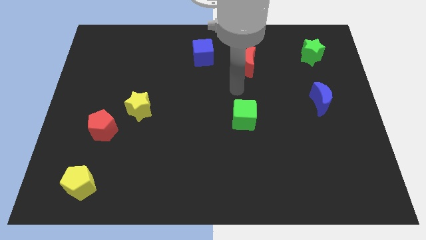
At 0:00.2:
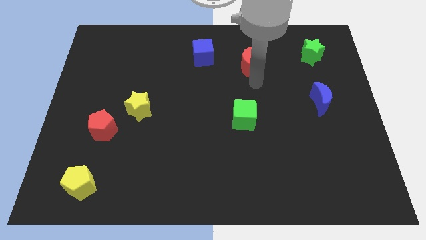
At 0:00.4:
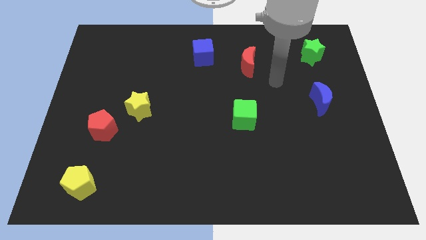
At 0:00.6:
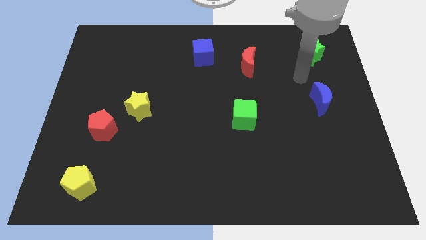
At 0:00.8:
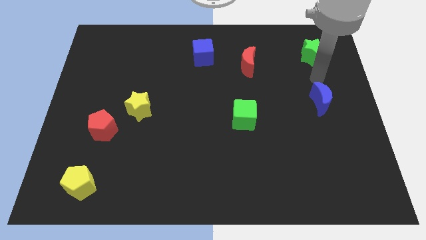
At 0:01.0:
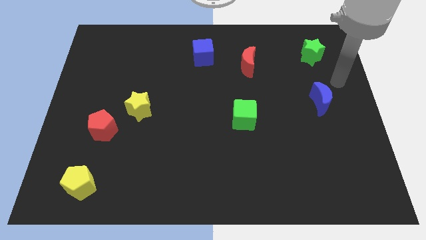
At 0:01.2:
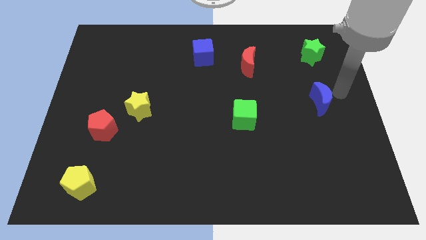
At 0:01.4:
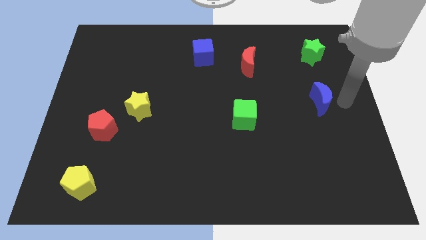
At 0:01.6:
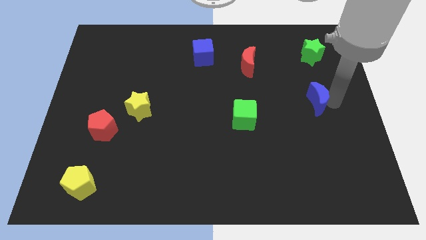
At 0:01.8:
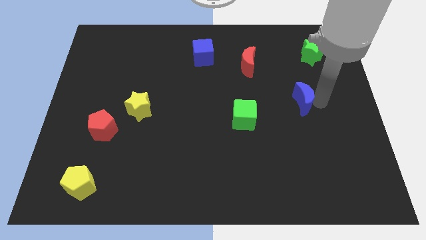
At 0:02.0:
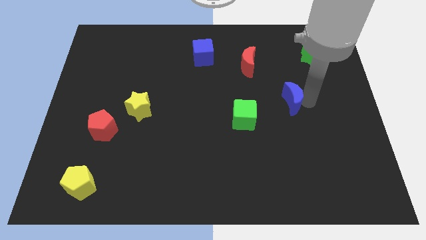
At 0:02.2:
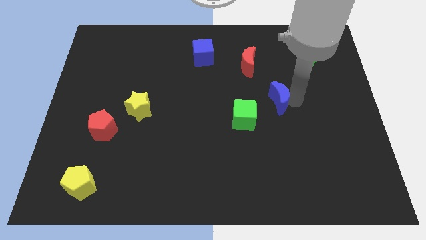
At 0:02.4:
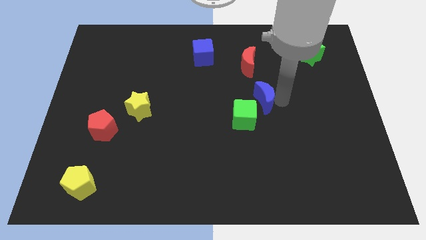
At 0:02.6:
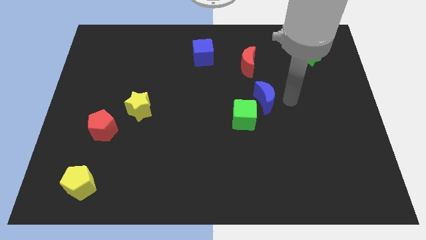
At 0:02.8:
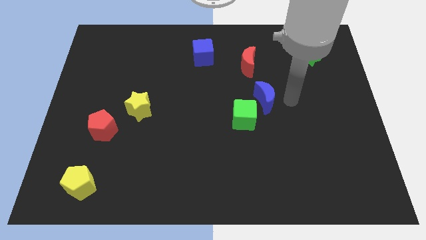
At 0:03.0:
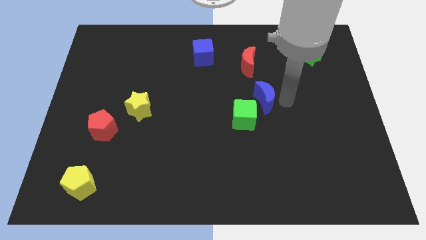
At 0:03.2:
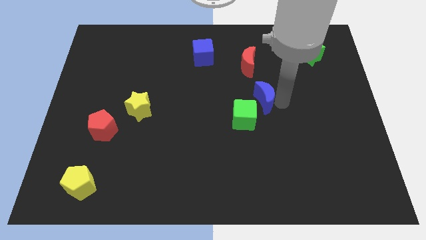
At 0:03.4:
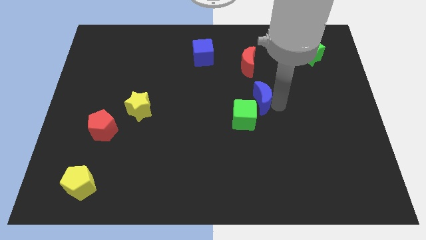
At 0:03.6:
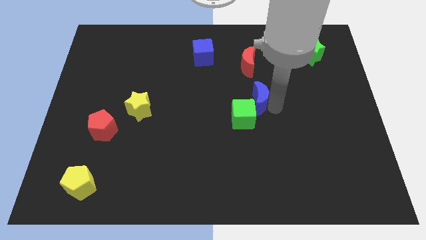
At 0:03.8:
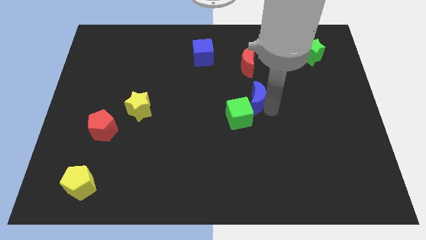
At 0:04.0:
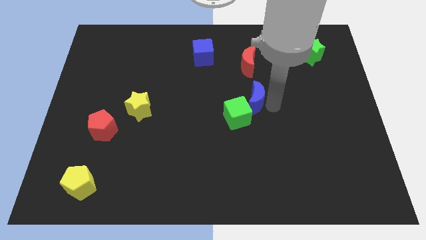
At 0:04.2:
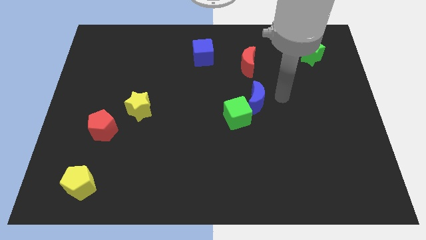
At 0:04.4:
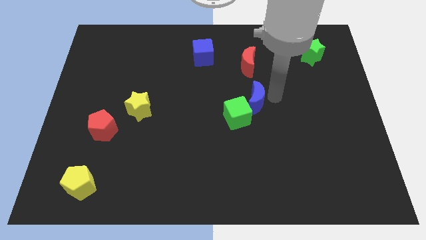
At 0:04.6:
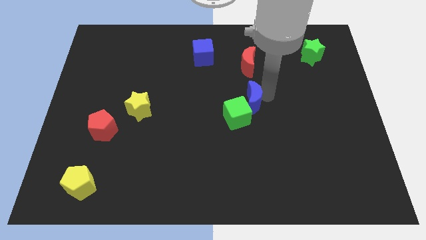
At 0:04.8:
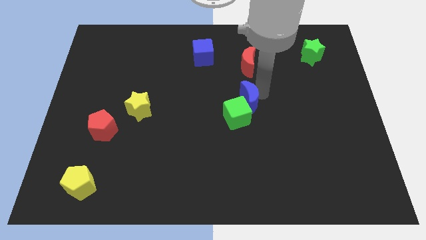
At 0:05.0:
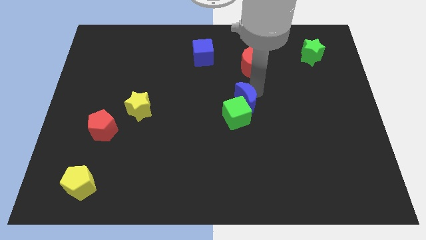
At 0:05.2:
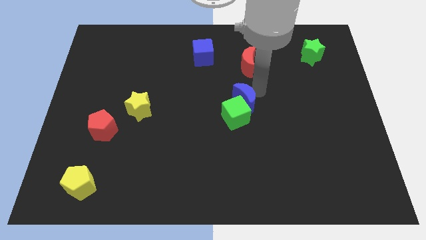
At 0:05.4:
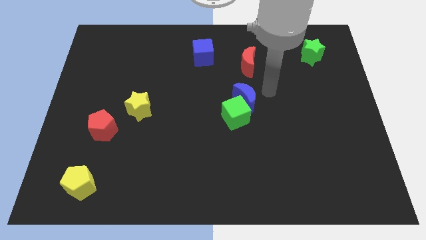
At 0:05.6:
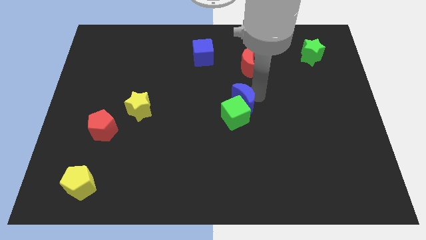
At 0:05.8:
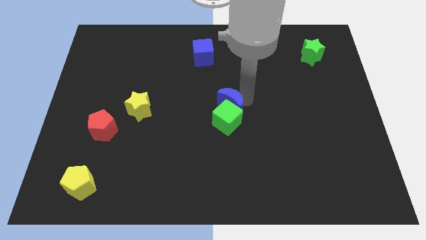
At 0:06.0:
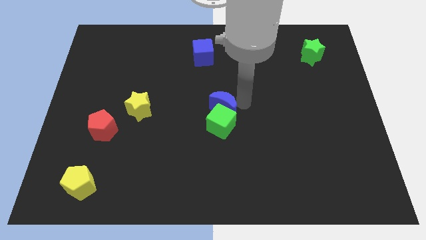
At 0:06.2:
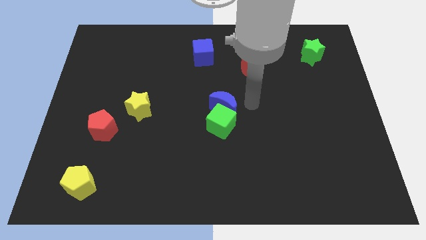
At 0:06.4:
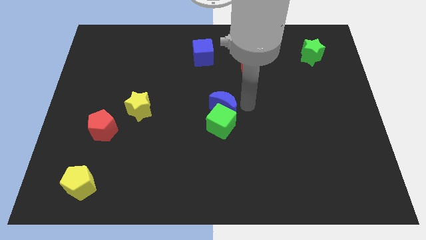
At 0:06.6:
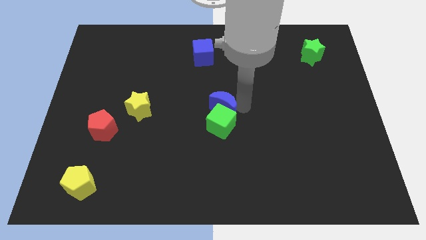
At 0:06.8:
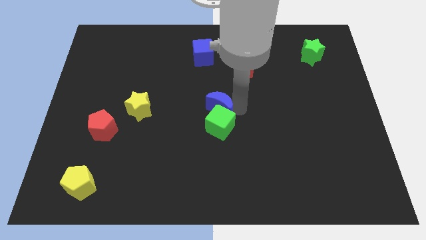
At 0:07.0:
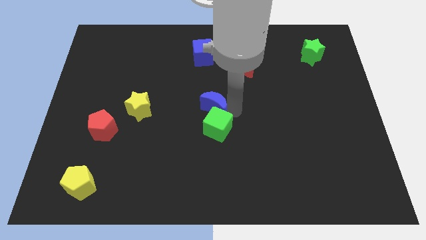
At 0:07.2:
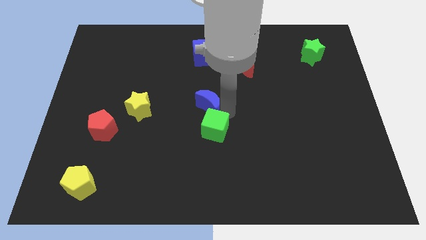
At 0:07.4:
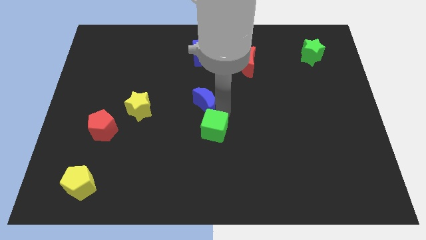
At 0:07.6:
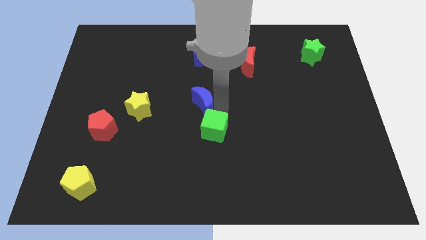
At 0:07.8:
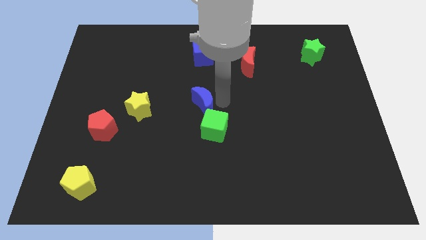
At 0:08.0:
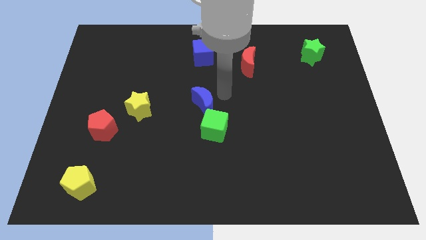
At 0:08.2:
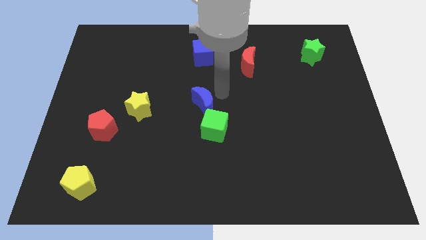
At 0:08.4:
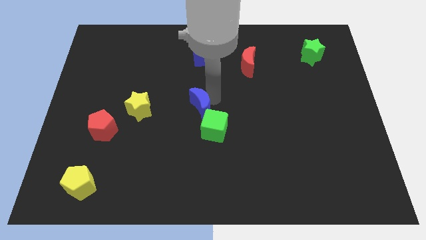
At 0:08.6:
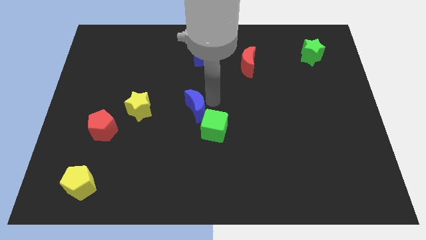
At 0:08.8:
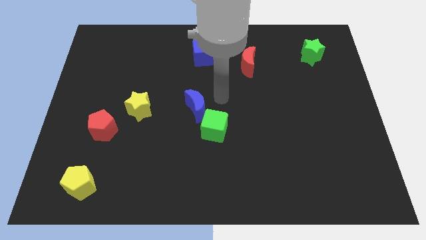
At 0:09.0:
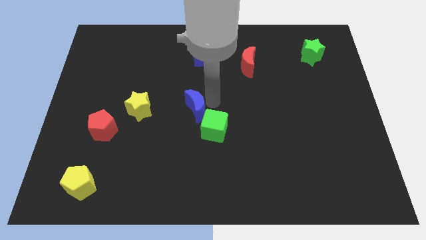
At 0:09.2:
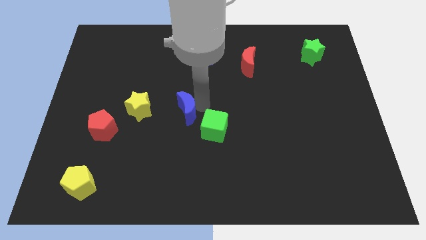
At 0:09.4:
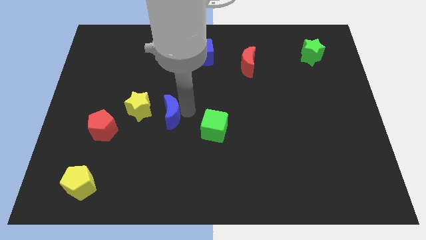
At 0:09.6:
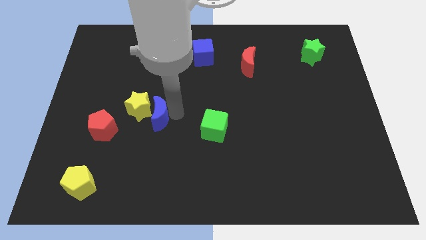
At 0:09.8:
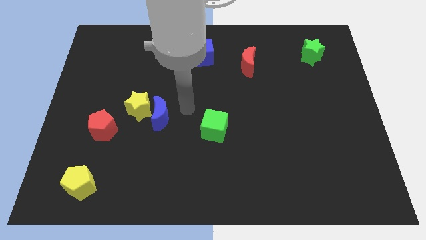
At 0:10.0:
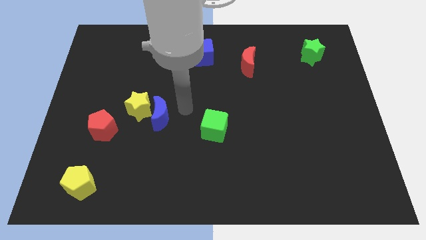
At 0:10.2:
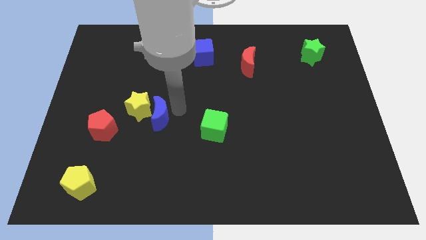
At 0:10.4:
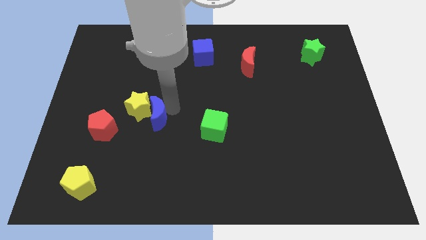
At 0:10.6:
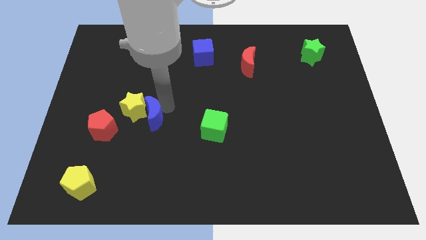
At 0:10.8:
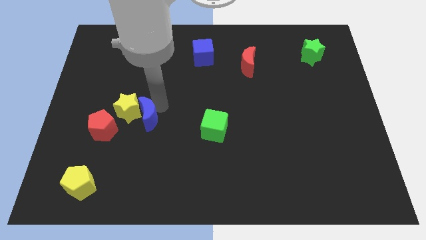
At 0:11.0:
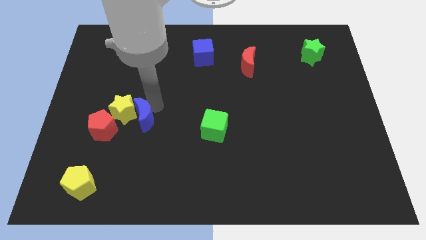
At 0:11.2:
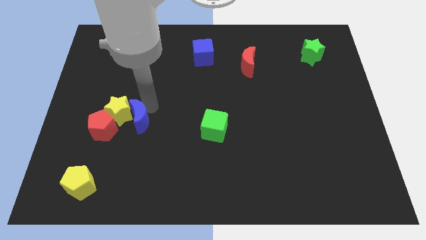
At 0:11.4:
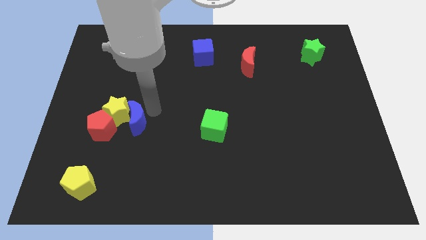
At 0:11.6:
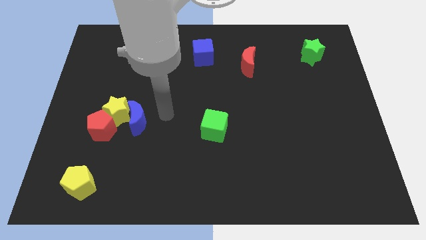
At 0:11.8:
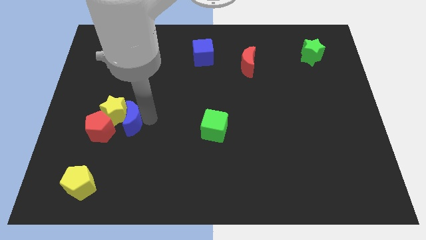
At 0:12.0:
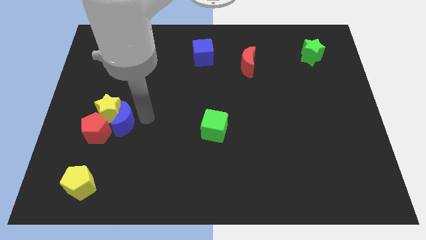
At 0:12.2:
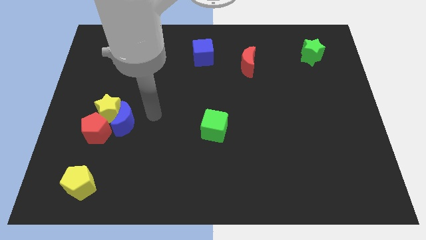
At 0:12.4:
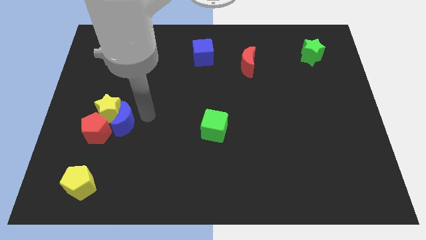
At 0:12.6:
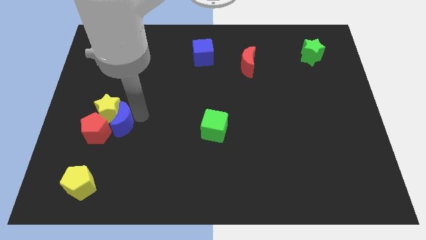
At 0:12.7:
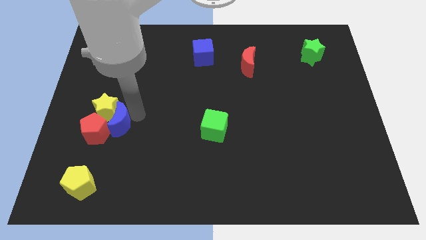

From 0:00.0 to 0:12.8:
slide the blue moon next to the red pentagon
